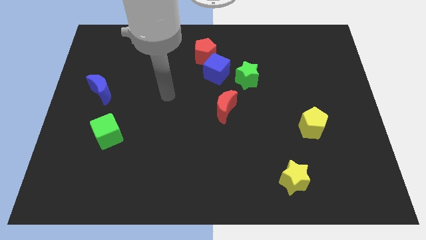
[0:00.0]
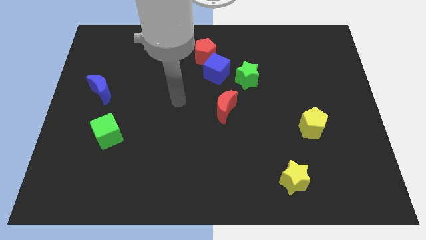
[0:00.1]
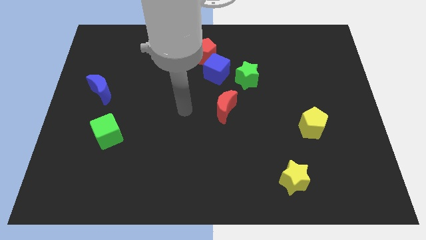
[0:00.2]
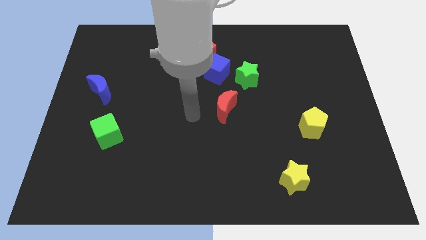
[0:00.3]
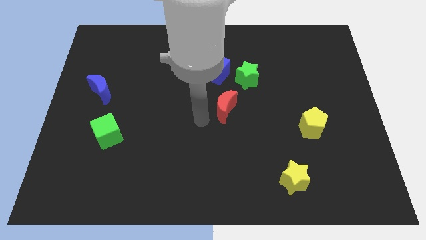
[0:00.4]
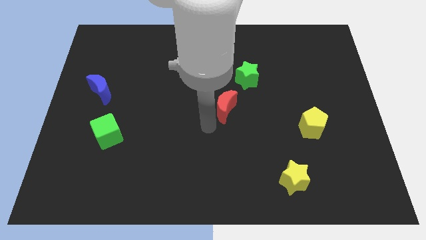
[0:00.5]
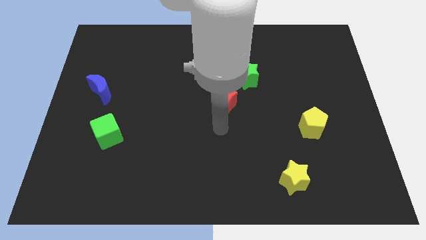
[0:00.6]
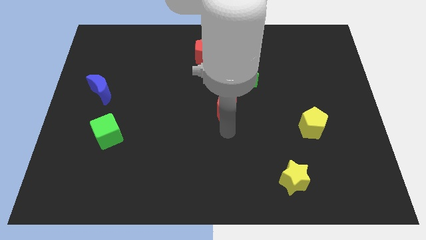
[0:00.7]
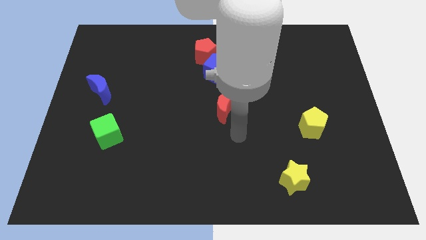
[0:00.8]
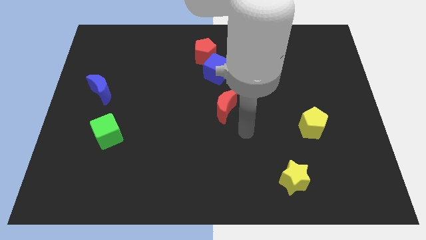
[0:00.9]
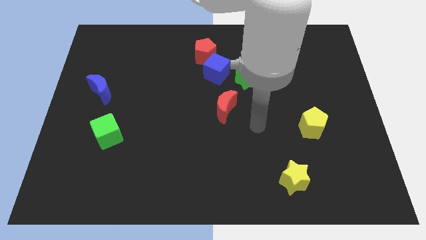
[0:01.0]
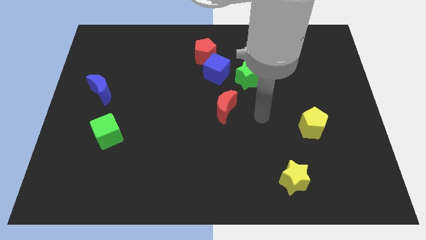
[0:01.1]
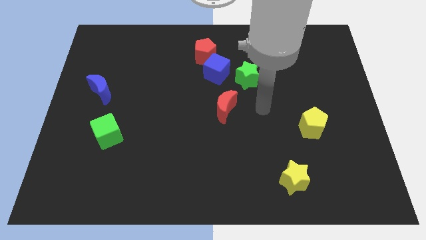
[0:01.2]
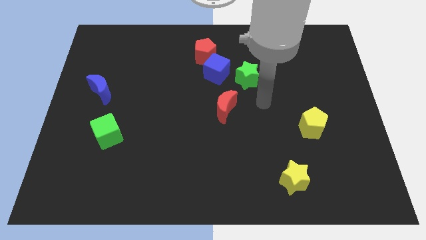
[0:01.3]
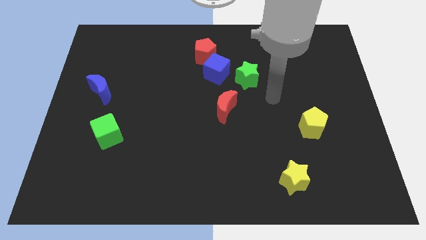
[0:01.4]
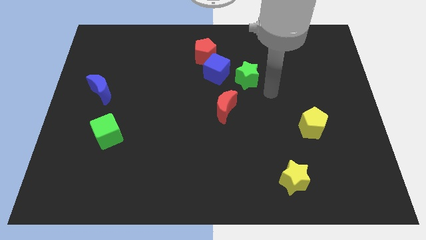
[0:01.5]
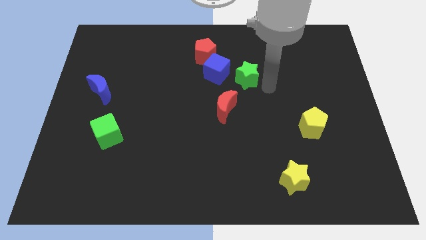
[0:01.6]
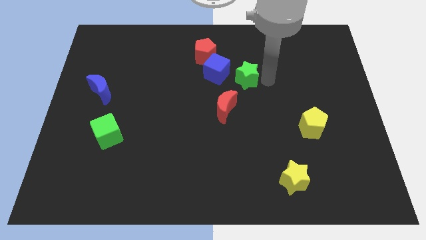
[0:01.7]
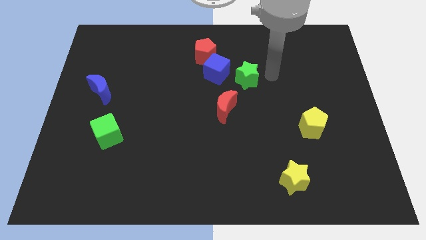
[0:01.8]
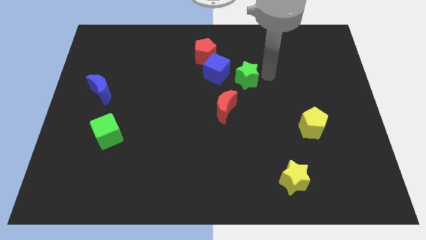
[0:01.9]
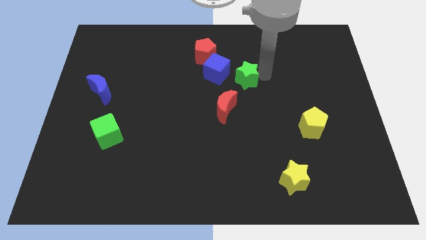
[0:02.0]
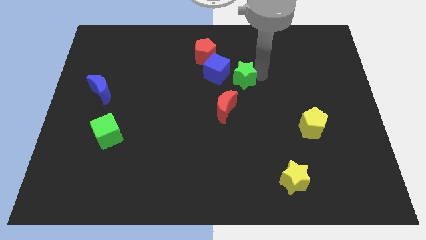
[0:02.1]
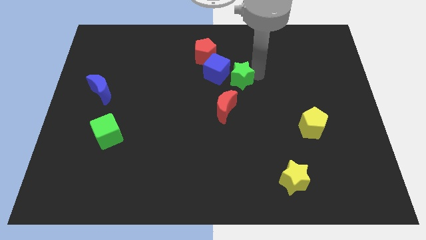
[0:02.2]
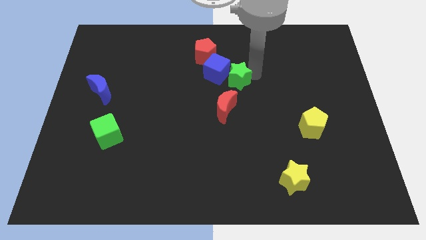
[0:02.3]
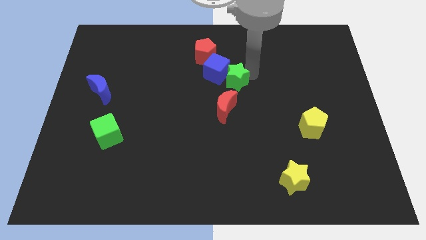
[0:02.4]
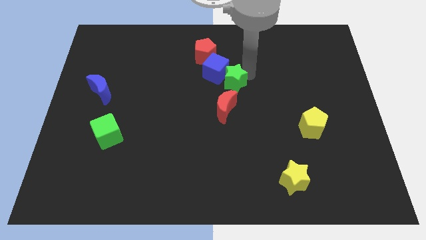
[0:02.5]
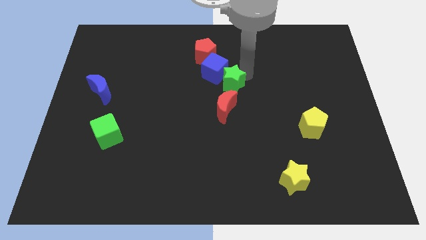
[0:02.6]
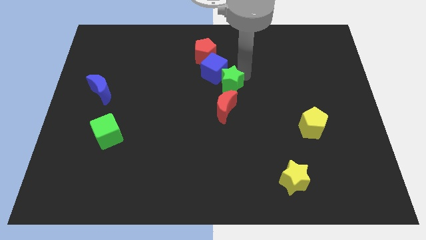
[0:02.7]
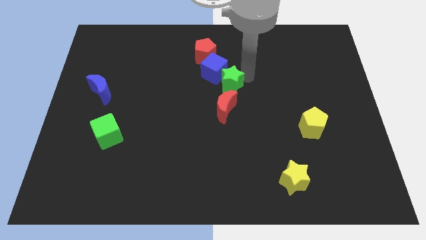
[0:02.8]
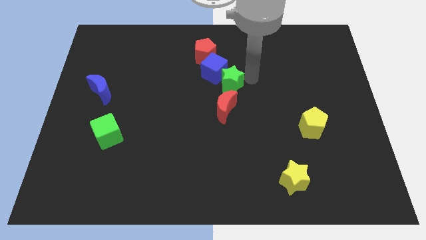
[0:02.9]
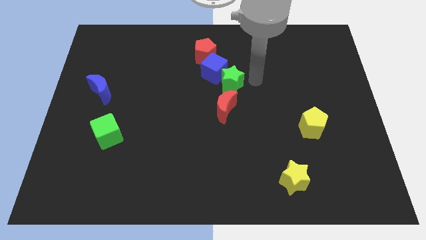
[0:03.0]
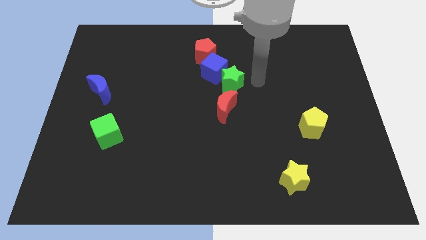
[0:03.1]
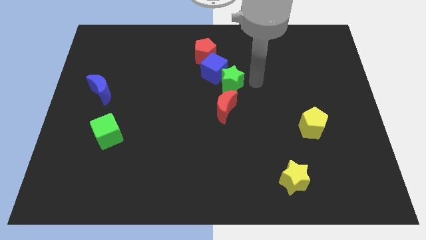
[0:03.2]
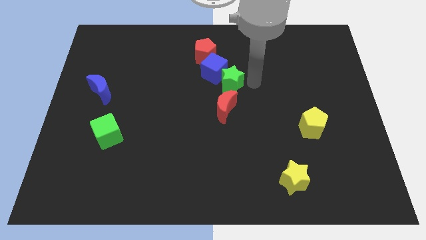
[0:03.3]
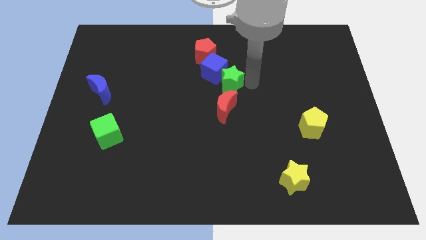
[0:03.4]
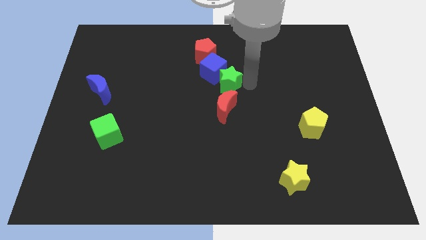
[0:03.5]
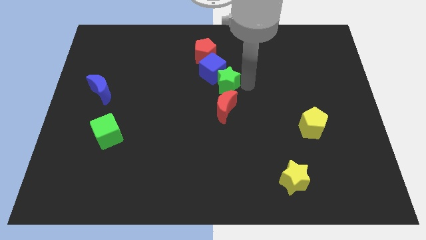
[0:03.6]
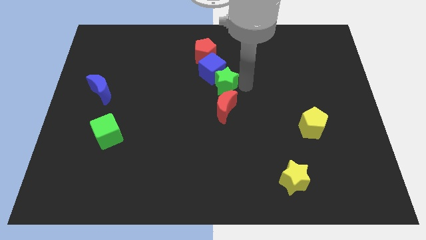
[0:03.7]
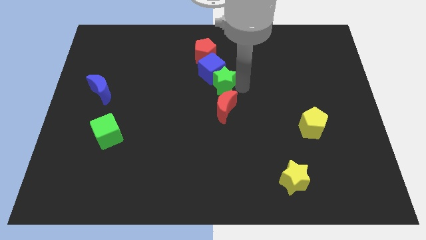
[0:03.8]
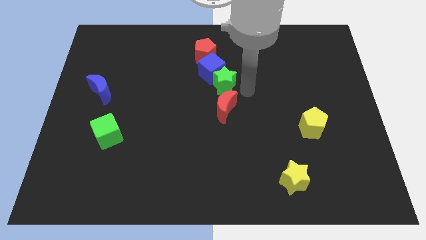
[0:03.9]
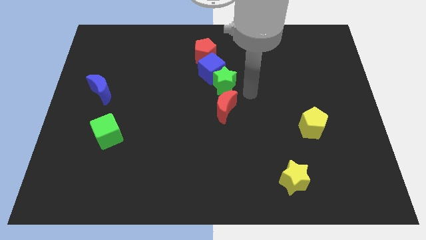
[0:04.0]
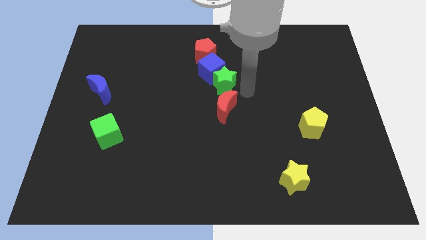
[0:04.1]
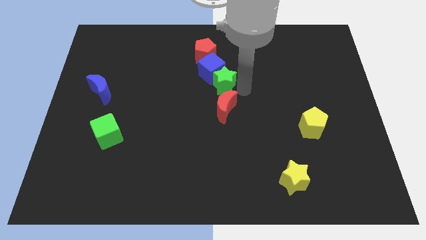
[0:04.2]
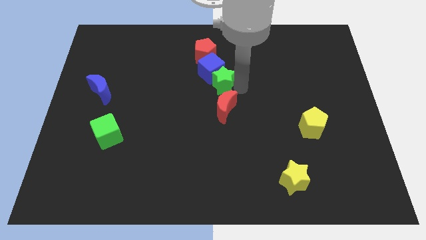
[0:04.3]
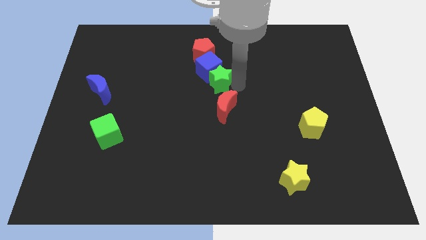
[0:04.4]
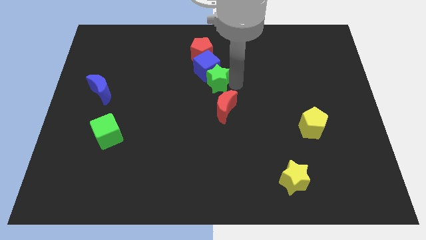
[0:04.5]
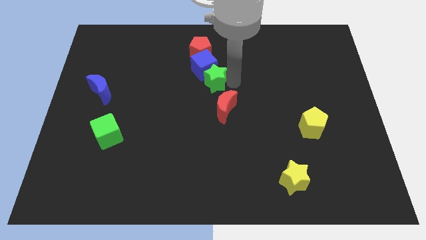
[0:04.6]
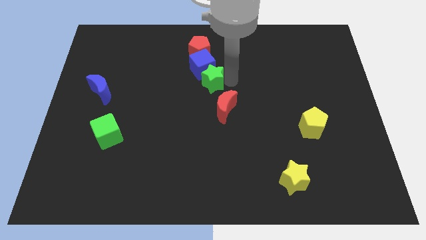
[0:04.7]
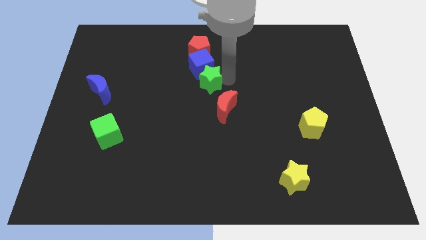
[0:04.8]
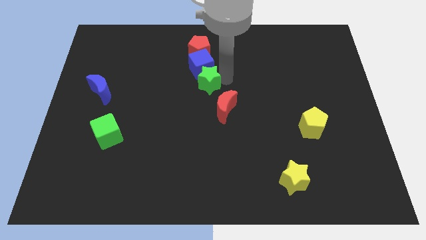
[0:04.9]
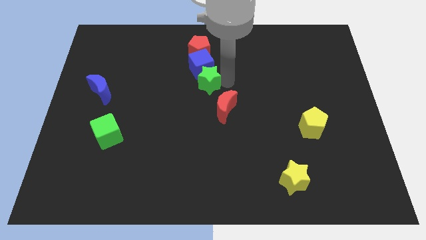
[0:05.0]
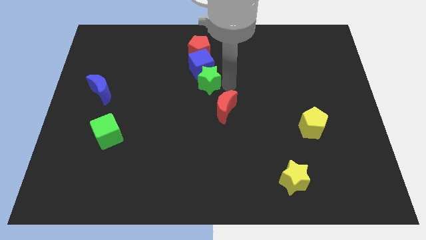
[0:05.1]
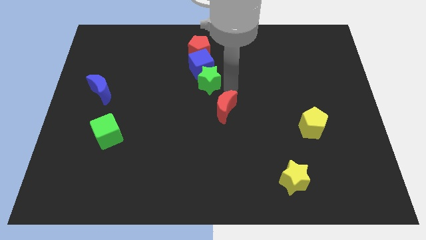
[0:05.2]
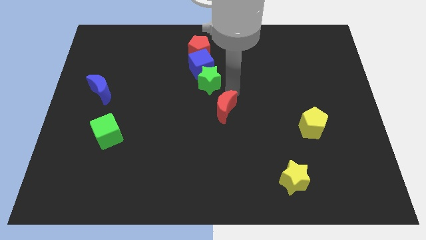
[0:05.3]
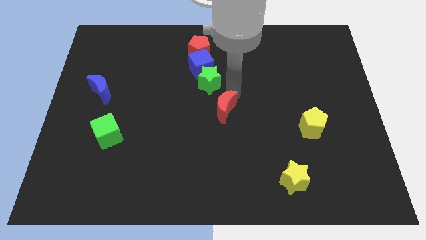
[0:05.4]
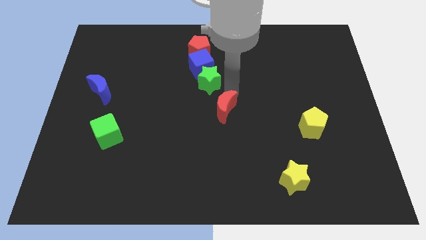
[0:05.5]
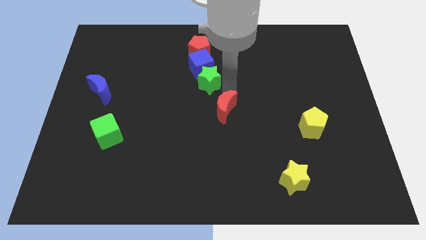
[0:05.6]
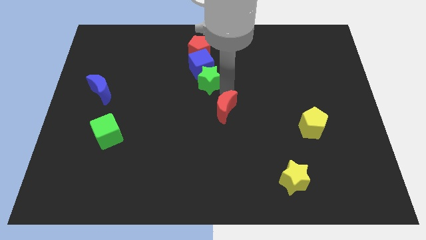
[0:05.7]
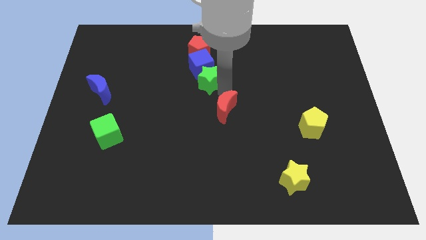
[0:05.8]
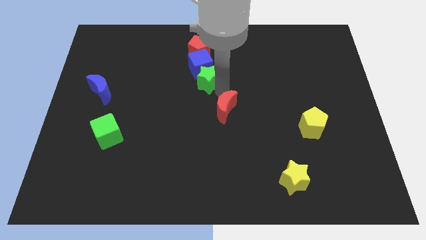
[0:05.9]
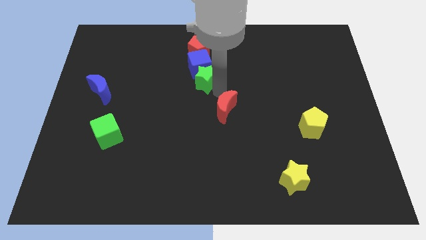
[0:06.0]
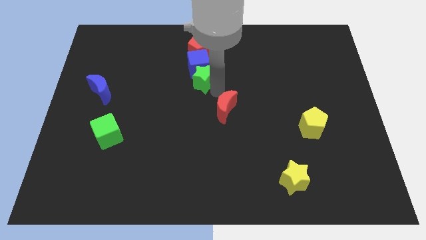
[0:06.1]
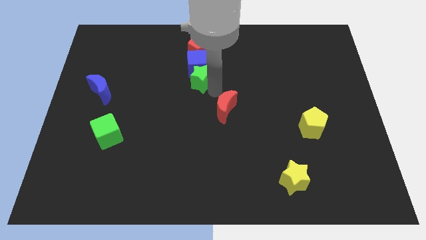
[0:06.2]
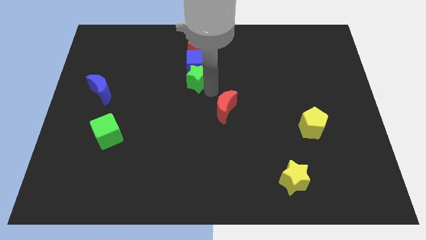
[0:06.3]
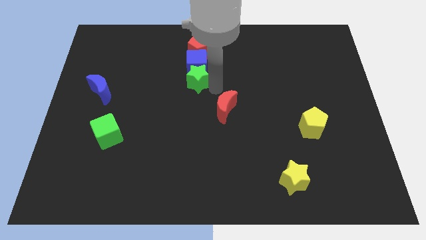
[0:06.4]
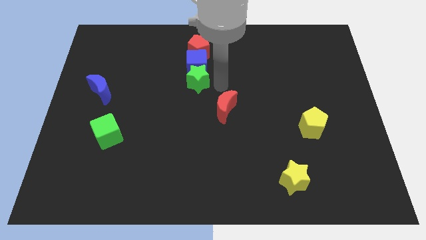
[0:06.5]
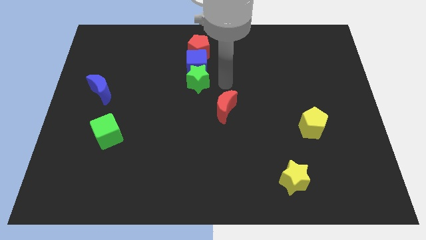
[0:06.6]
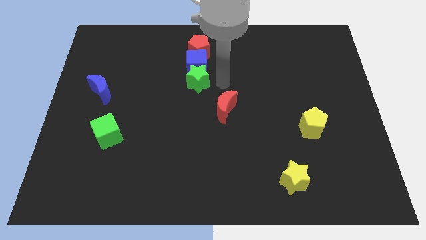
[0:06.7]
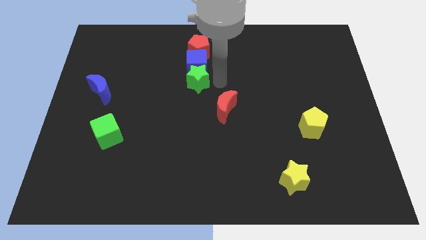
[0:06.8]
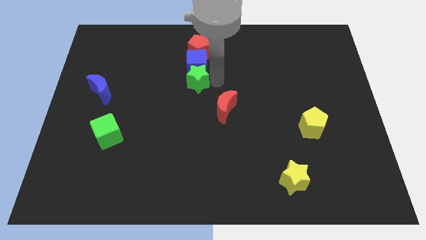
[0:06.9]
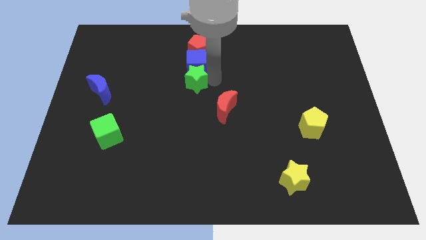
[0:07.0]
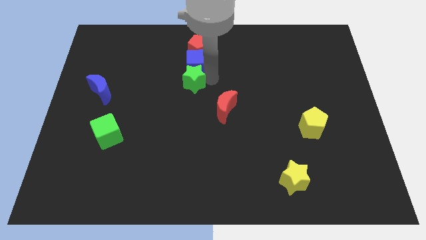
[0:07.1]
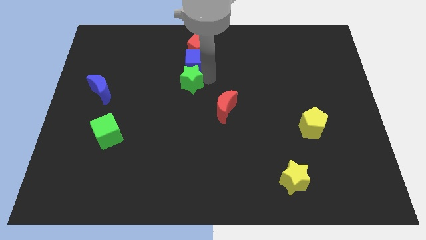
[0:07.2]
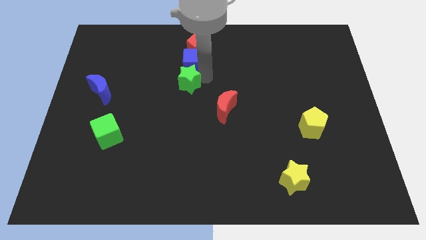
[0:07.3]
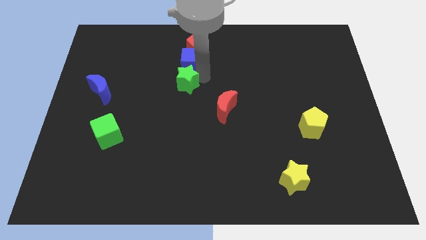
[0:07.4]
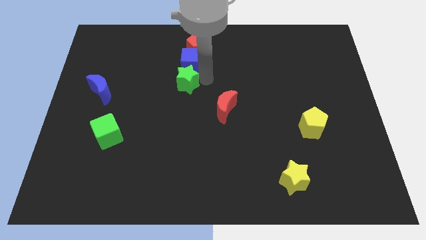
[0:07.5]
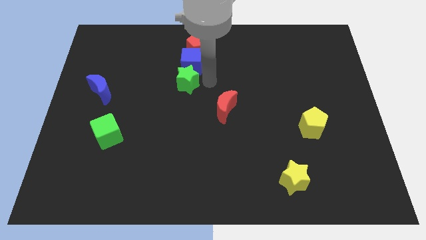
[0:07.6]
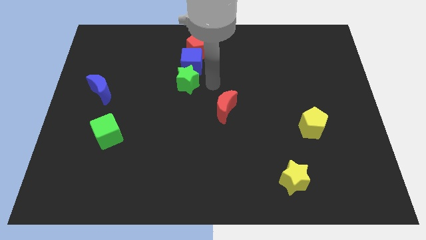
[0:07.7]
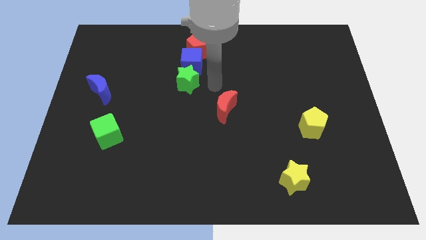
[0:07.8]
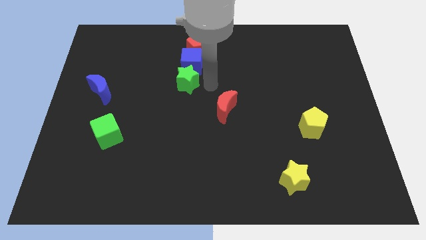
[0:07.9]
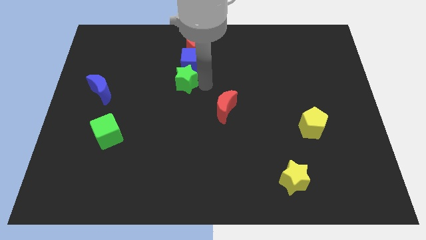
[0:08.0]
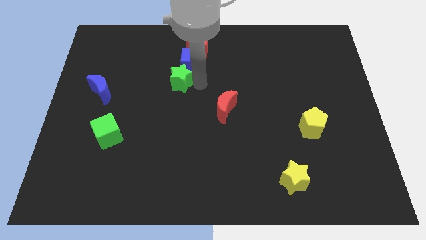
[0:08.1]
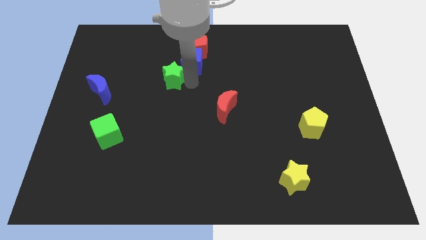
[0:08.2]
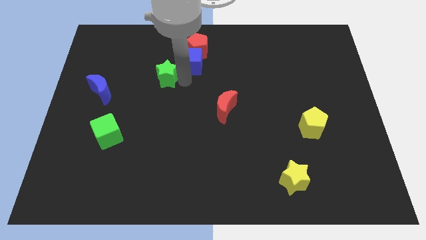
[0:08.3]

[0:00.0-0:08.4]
slide the green star to the left
